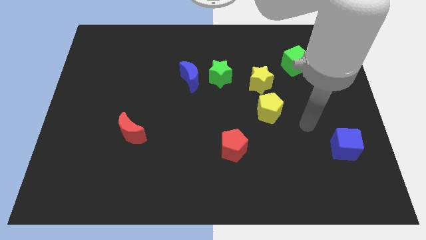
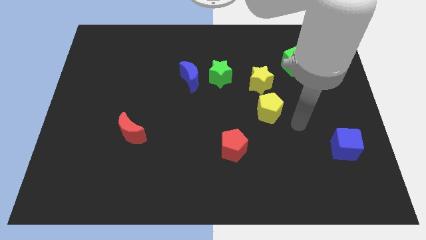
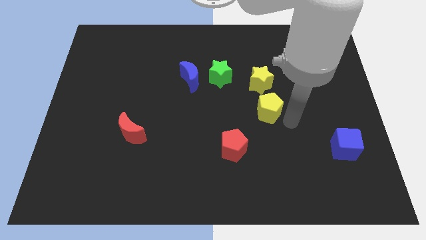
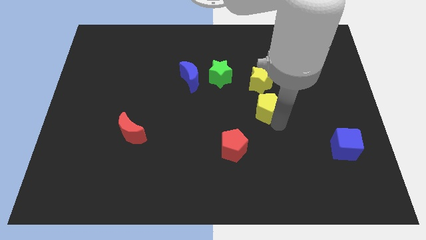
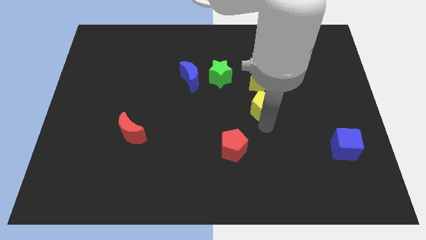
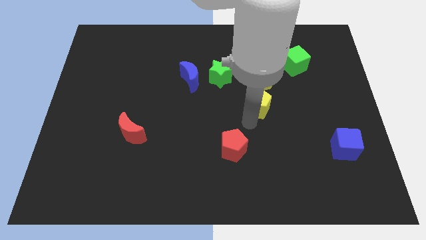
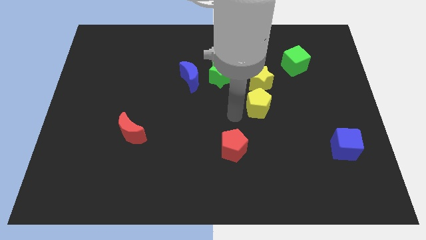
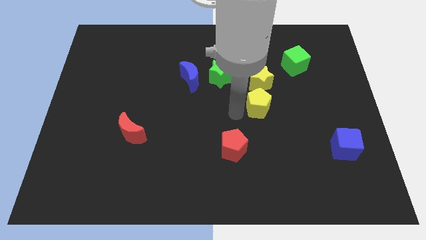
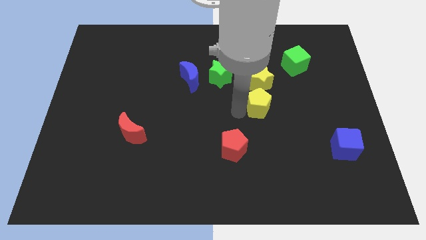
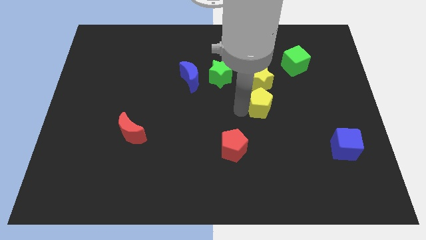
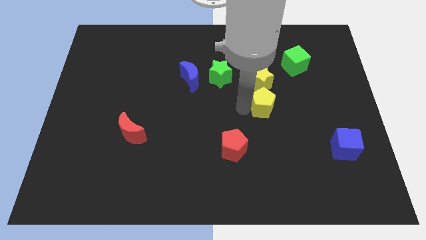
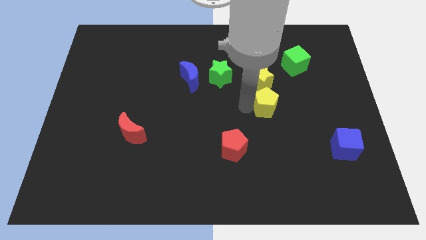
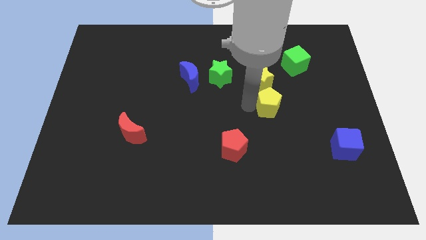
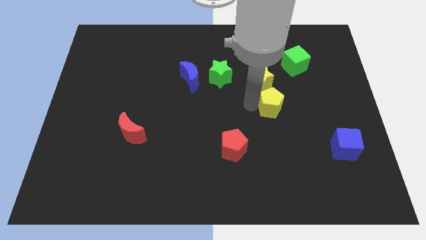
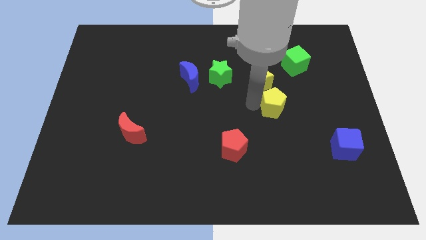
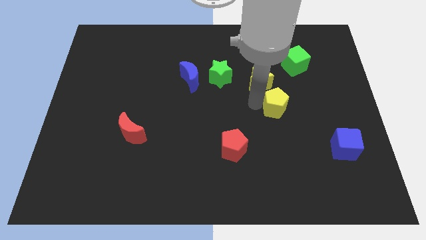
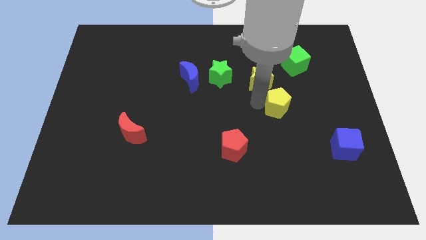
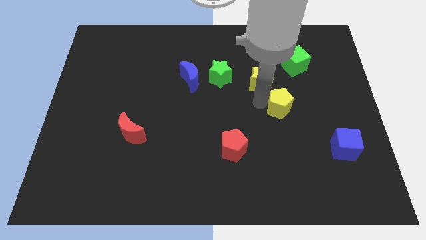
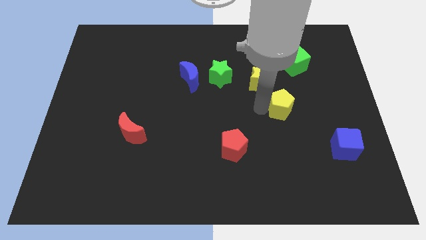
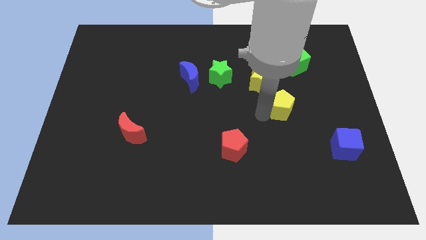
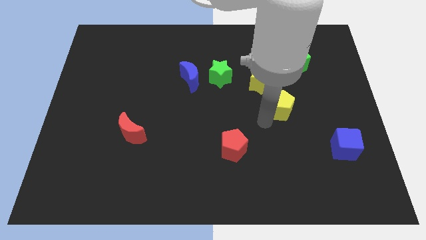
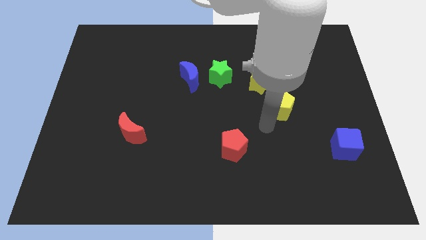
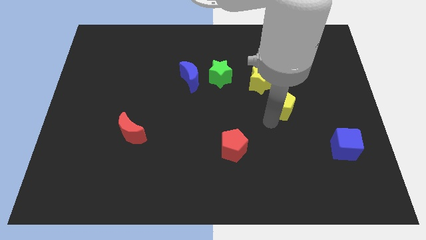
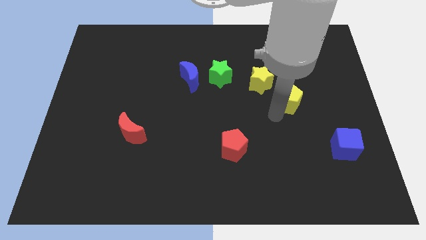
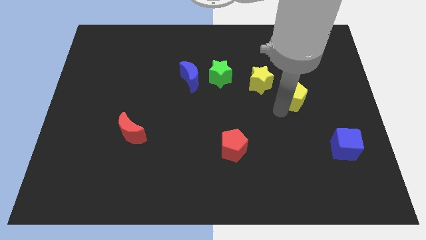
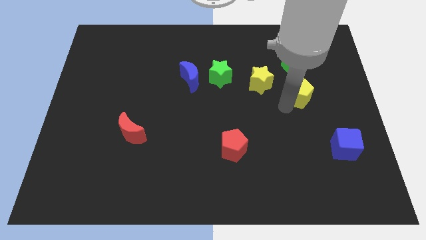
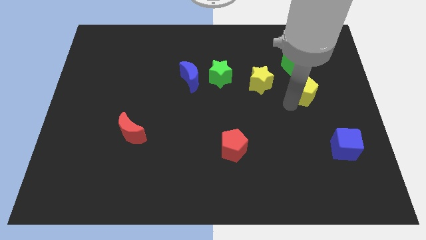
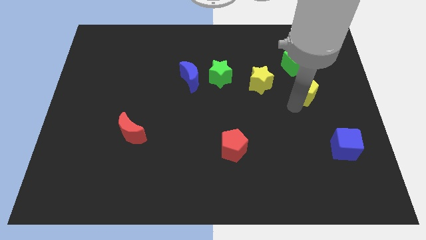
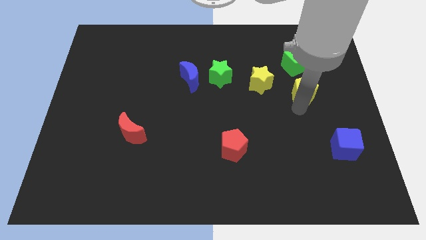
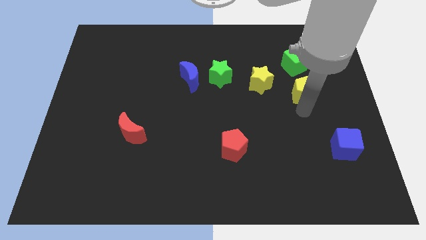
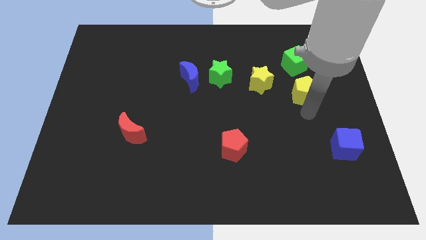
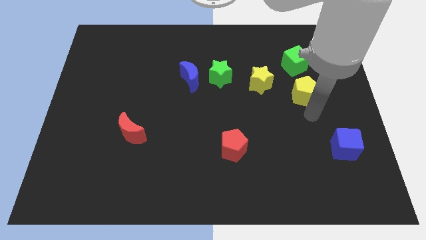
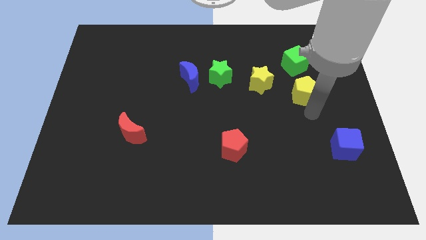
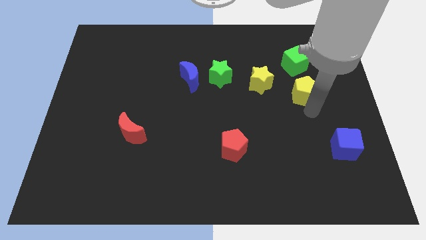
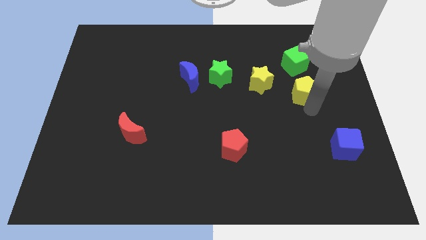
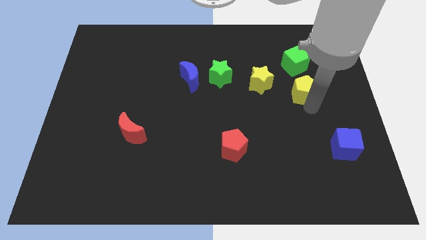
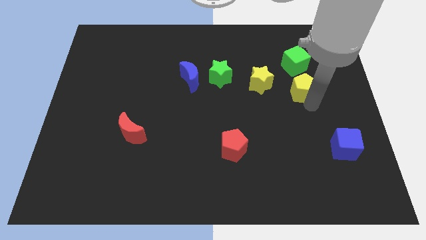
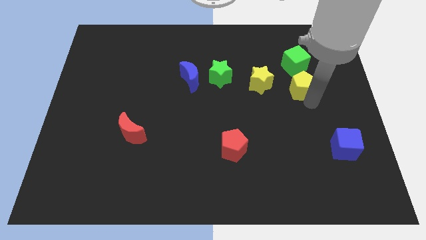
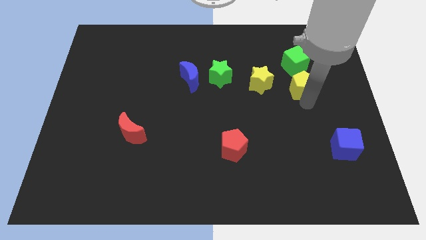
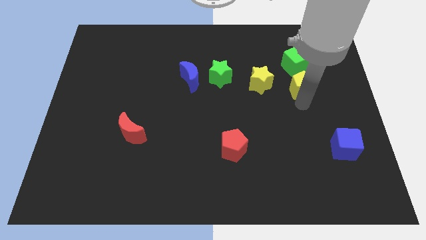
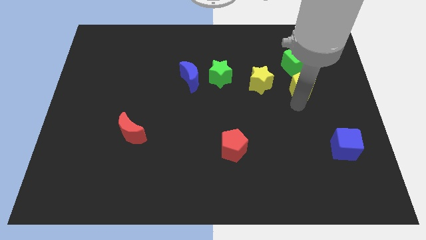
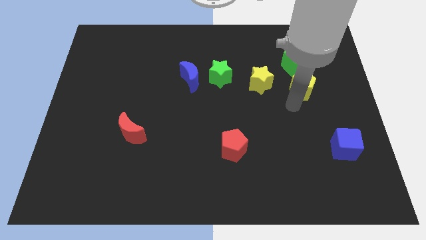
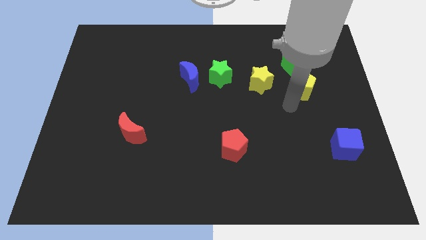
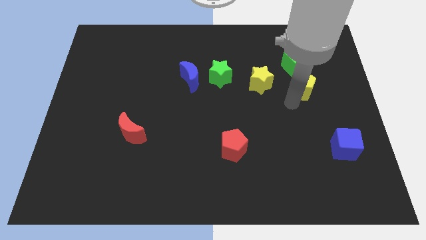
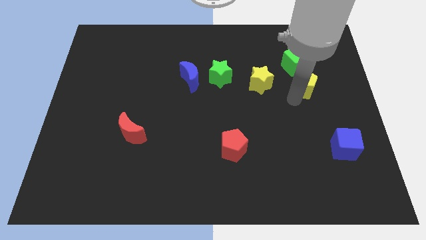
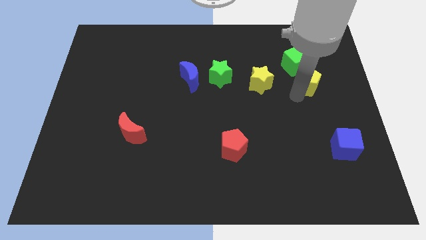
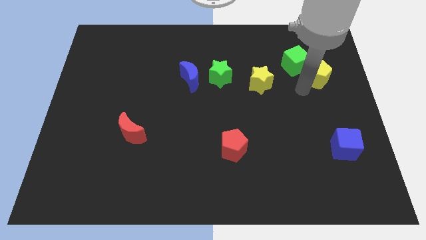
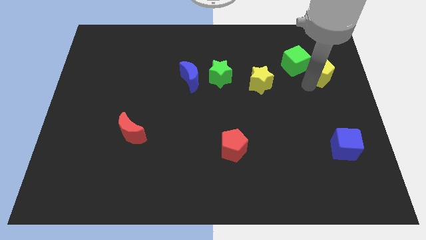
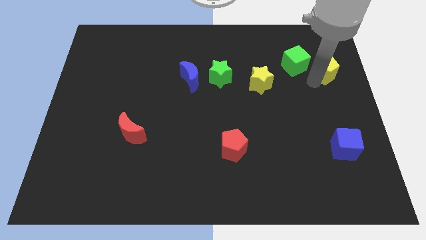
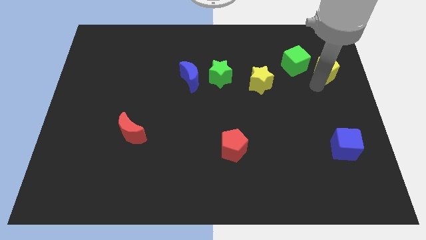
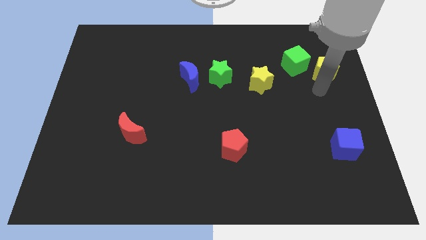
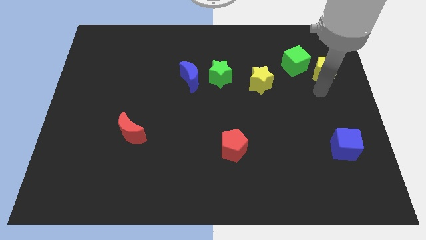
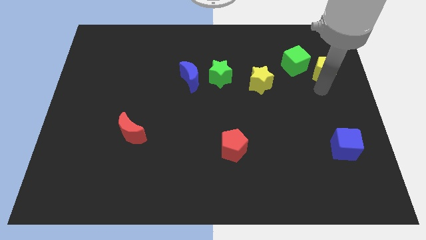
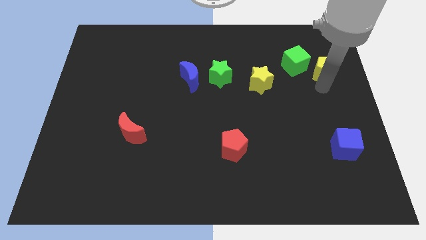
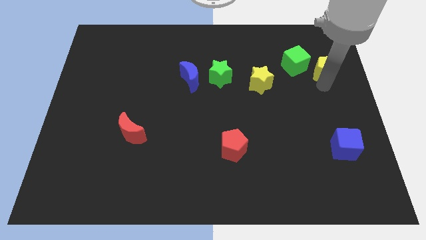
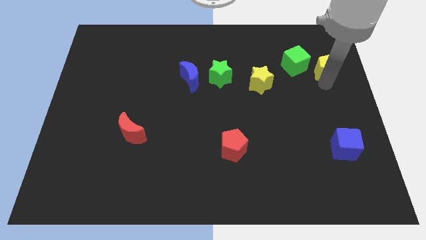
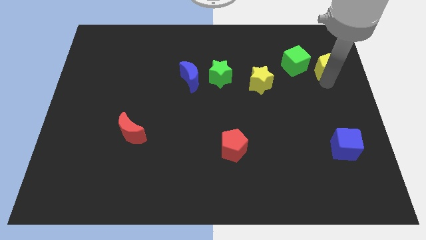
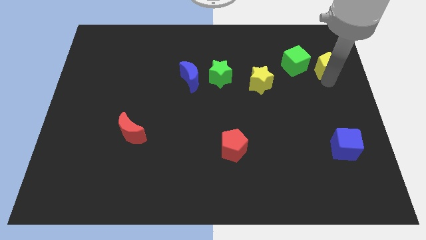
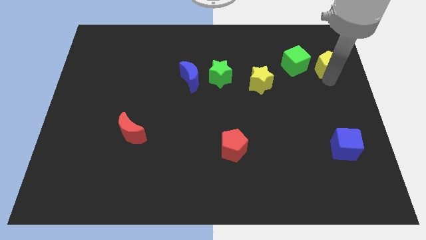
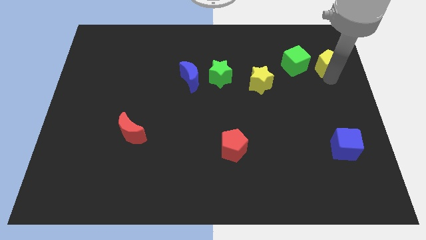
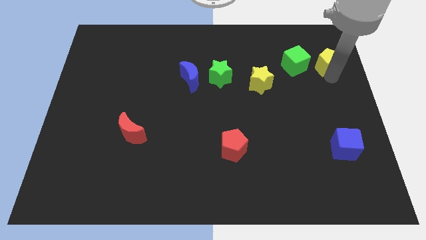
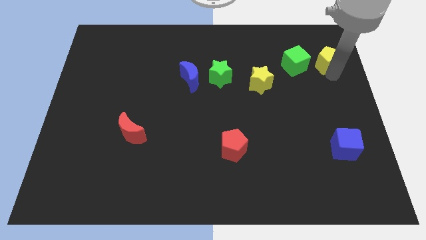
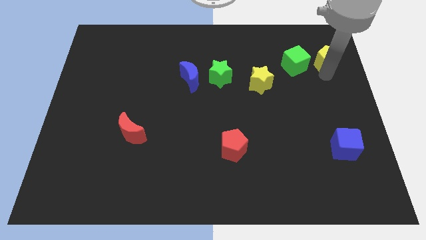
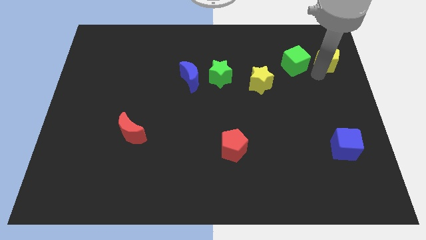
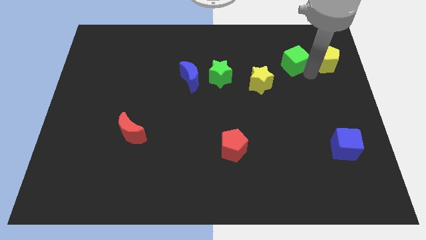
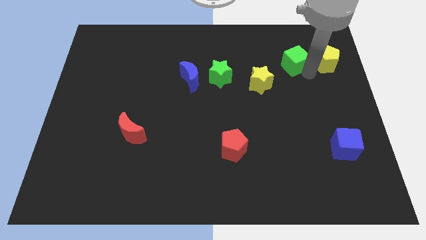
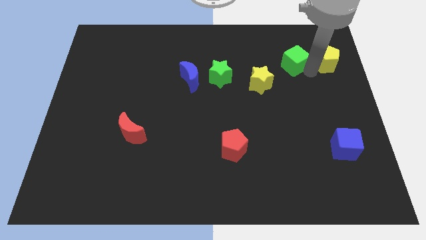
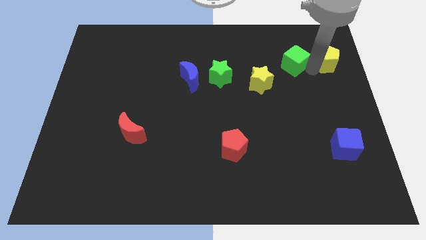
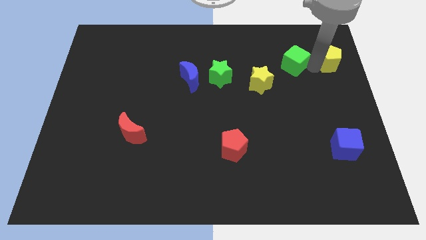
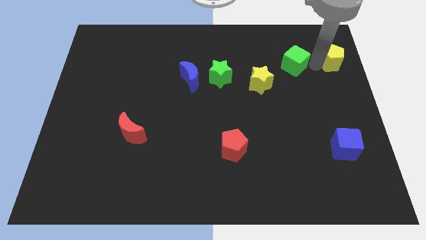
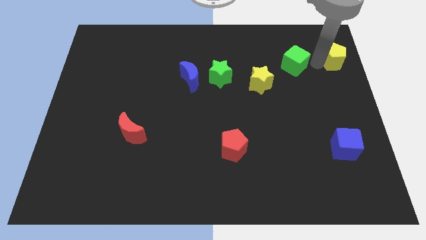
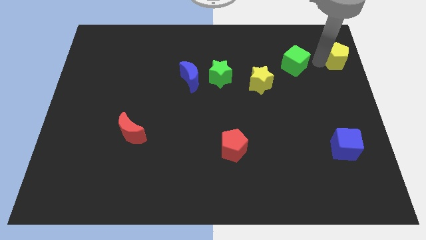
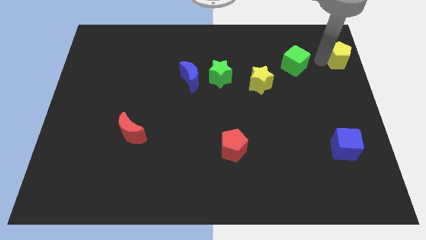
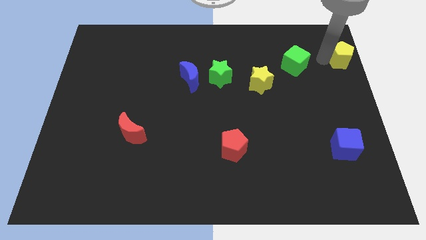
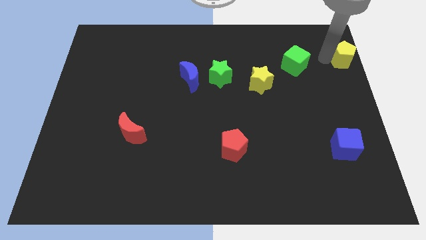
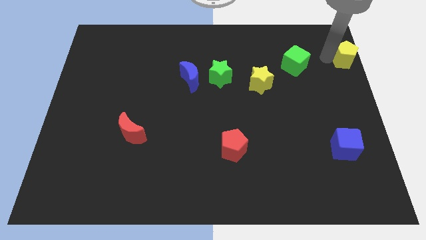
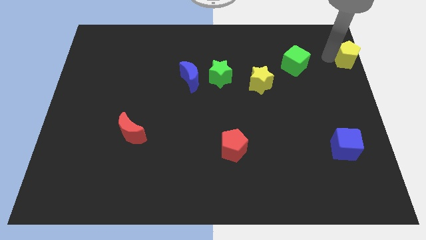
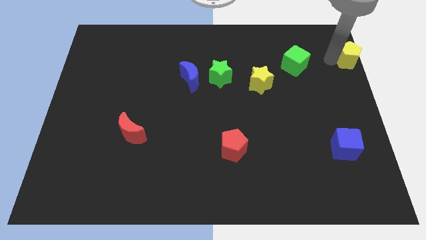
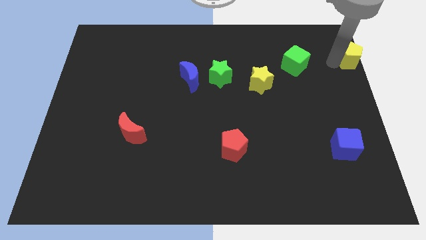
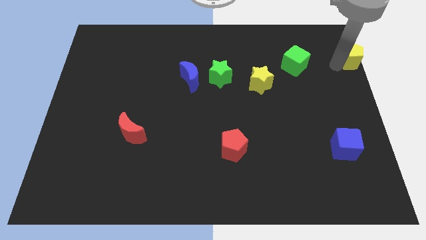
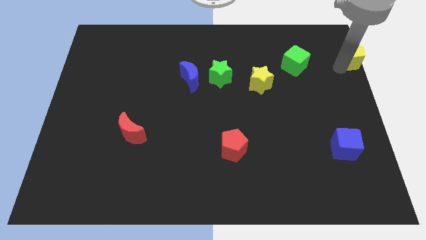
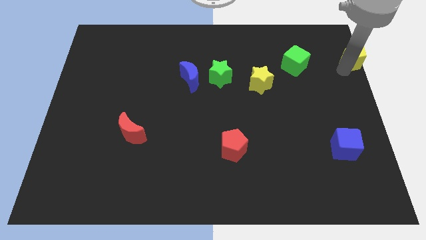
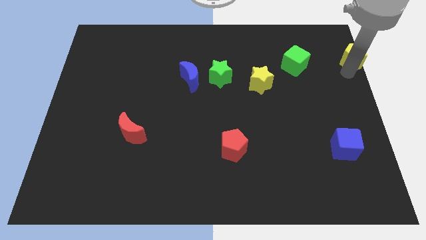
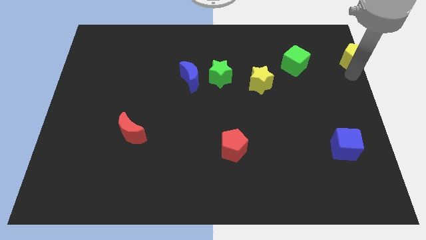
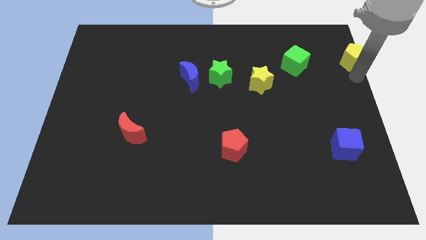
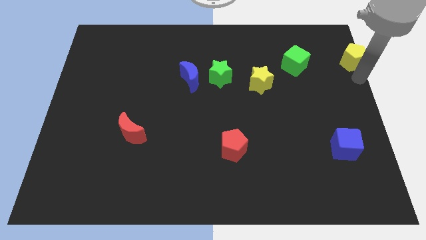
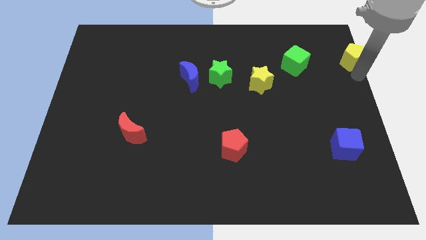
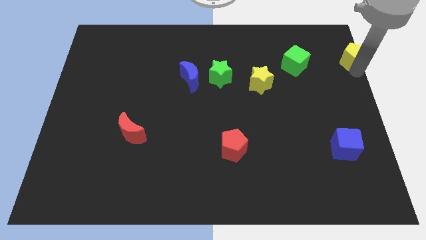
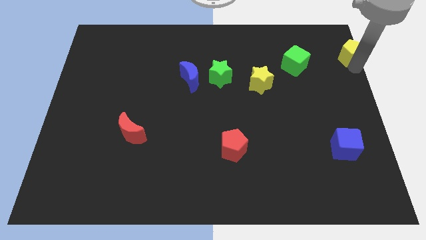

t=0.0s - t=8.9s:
push the yellow pentagon to the top right of the board
